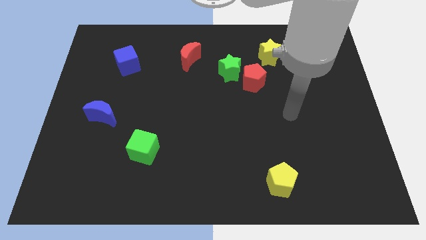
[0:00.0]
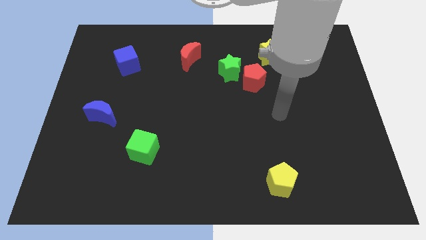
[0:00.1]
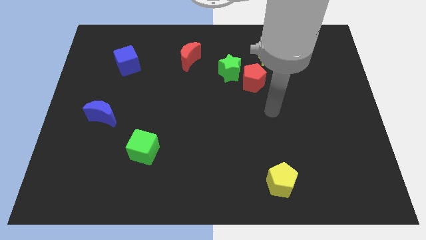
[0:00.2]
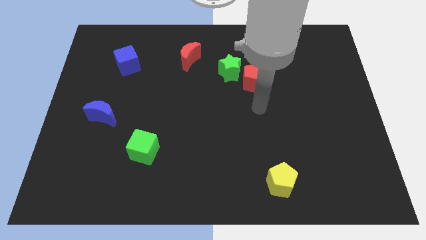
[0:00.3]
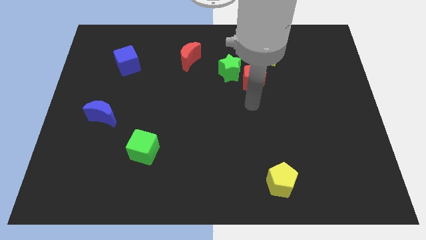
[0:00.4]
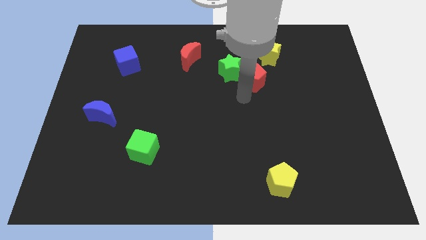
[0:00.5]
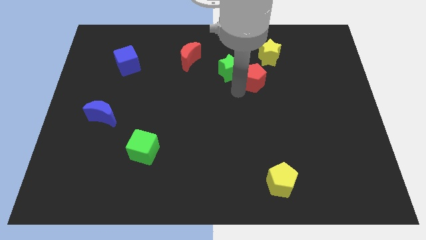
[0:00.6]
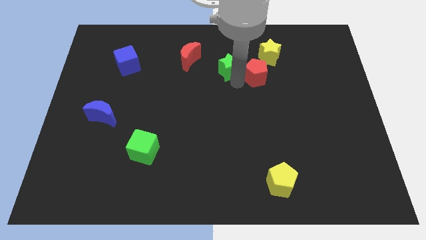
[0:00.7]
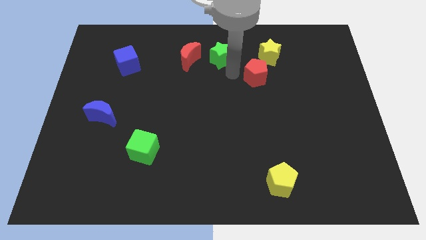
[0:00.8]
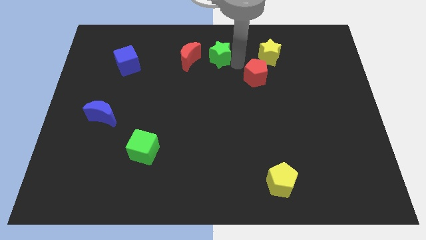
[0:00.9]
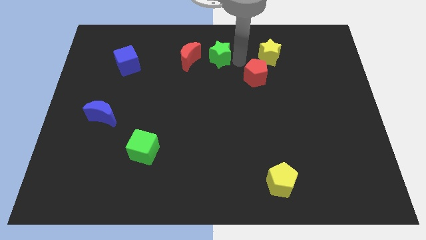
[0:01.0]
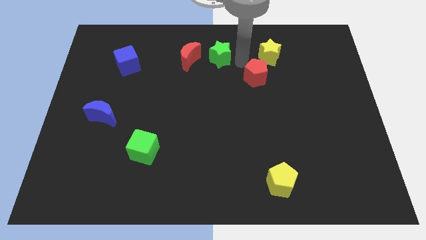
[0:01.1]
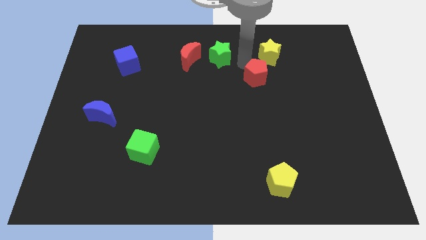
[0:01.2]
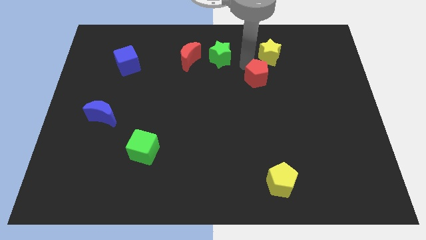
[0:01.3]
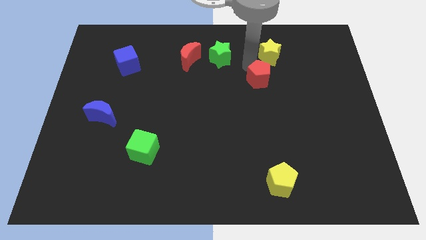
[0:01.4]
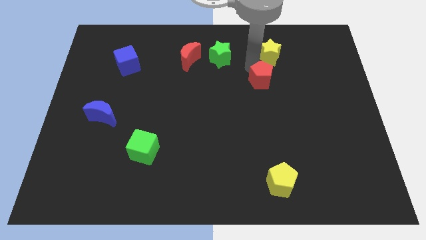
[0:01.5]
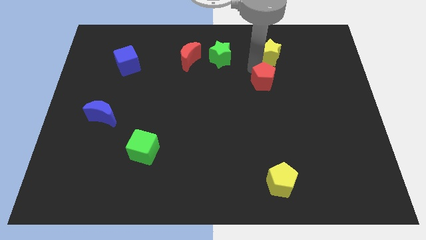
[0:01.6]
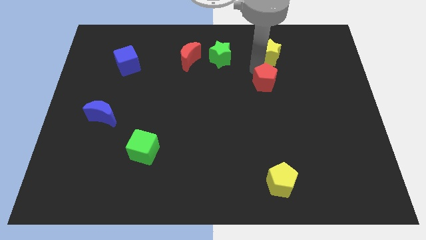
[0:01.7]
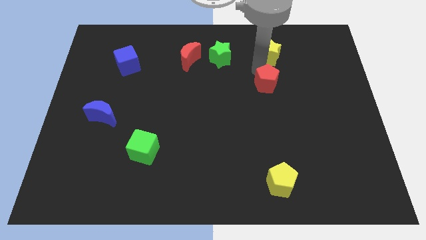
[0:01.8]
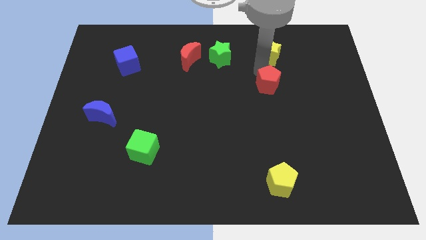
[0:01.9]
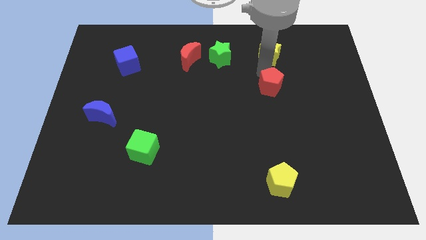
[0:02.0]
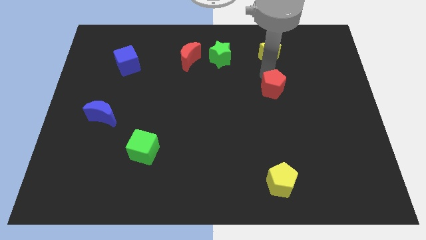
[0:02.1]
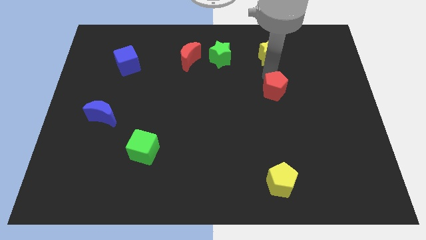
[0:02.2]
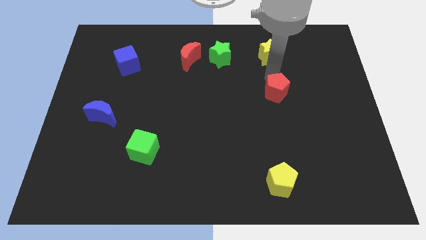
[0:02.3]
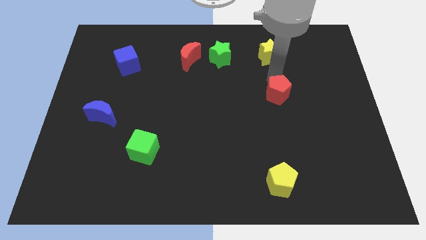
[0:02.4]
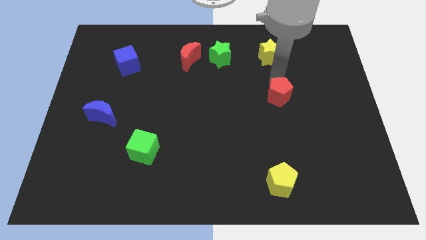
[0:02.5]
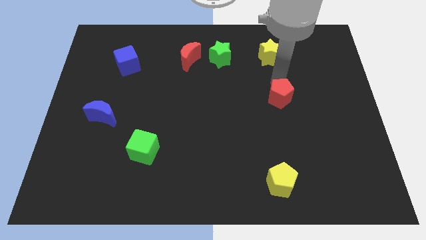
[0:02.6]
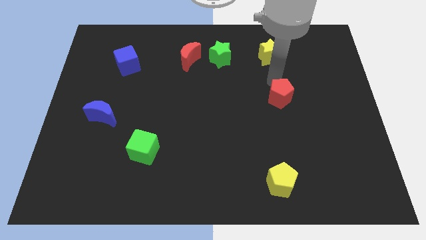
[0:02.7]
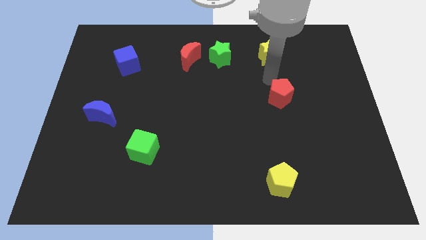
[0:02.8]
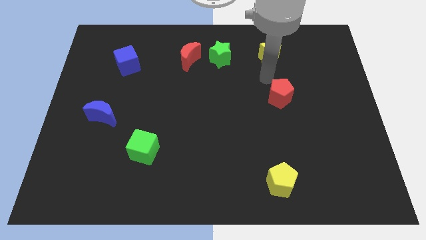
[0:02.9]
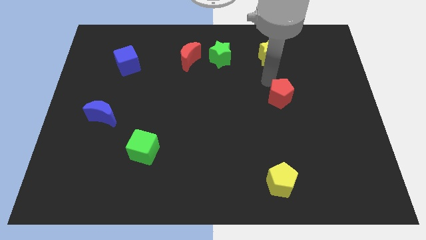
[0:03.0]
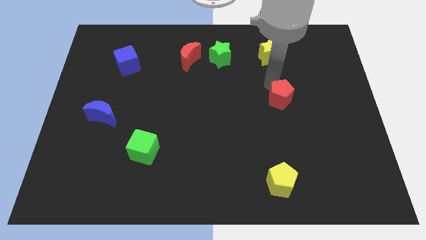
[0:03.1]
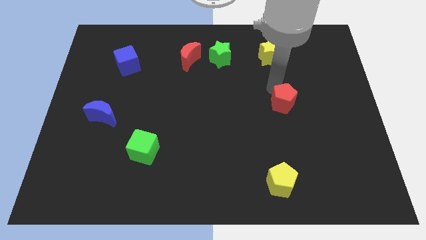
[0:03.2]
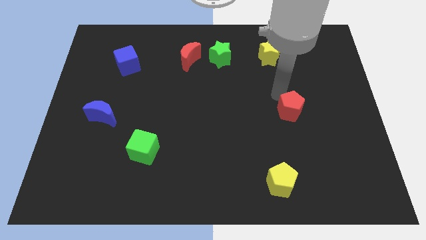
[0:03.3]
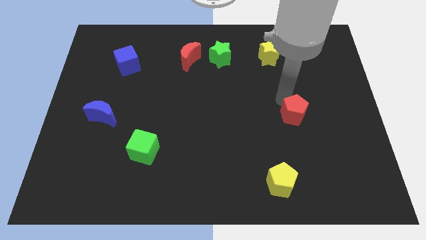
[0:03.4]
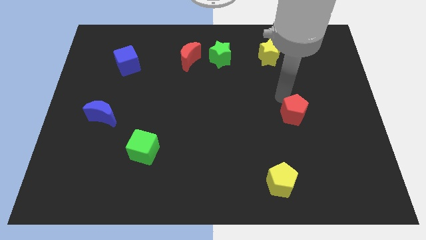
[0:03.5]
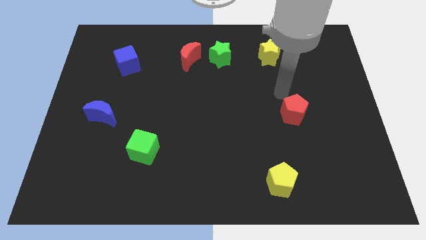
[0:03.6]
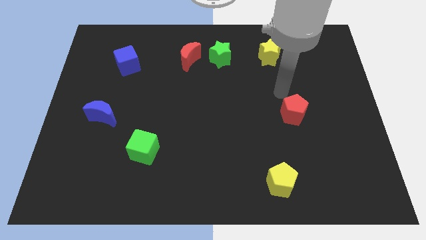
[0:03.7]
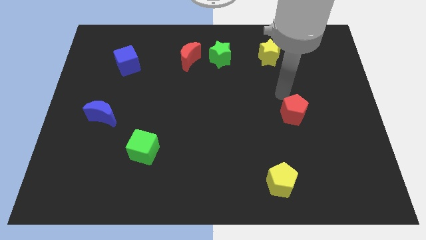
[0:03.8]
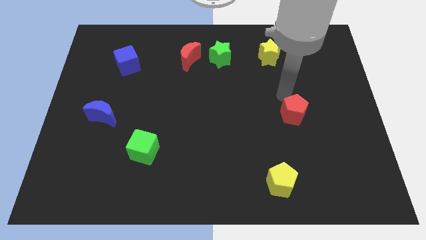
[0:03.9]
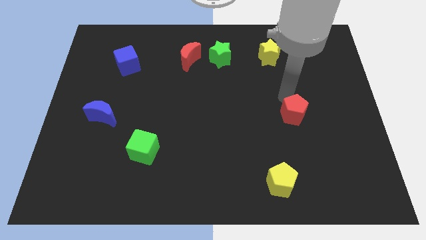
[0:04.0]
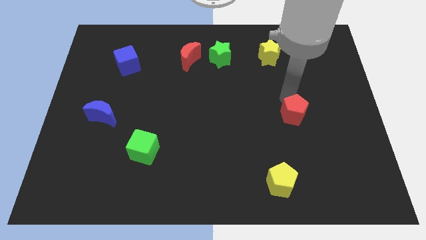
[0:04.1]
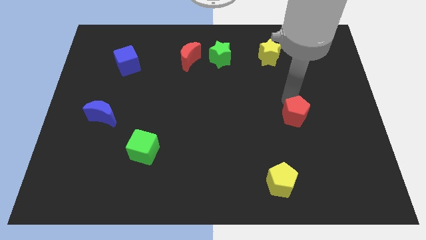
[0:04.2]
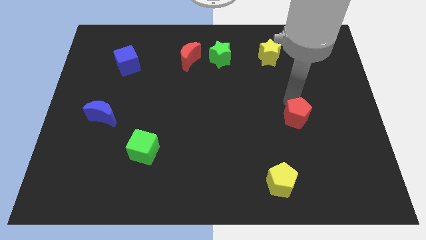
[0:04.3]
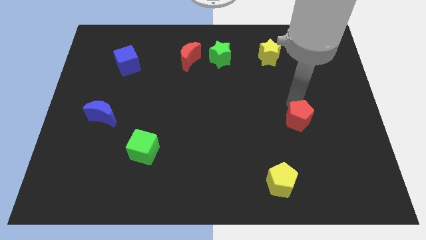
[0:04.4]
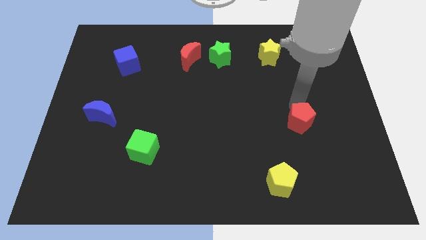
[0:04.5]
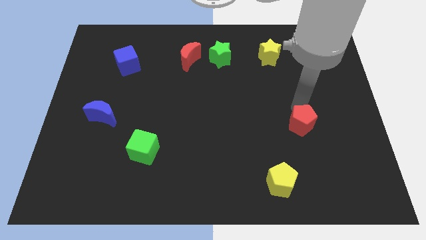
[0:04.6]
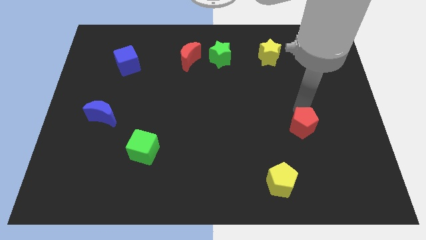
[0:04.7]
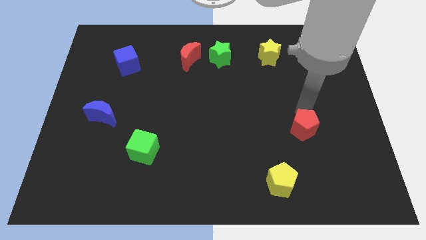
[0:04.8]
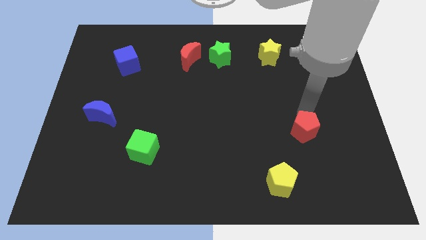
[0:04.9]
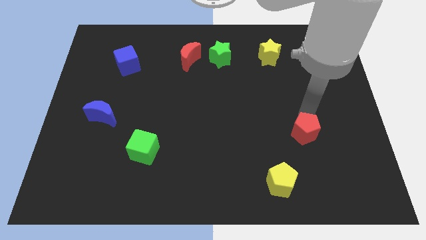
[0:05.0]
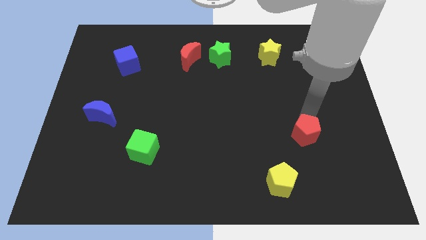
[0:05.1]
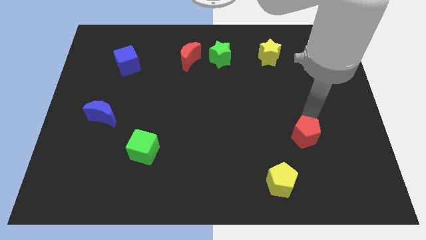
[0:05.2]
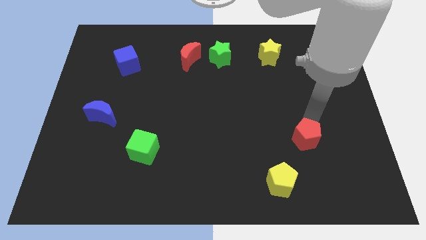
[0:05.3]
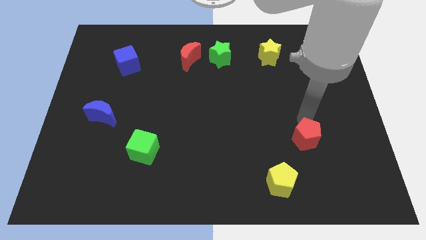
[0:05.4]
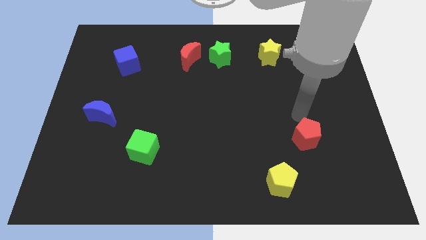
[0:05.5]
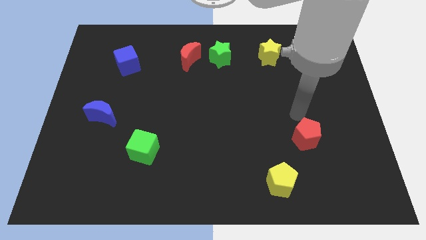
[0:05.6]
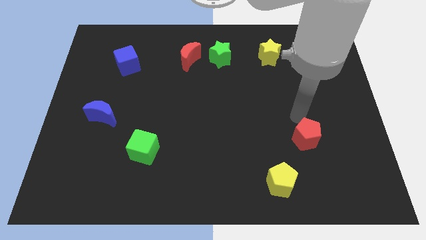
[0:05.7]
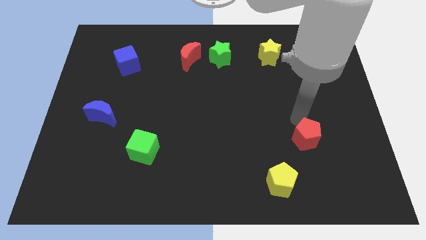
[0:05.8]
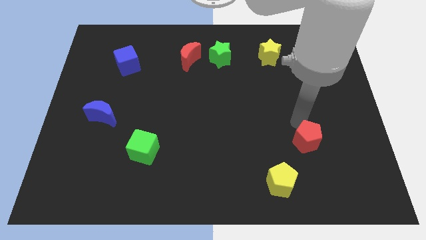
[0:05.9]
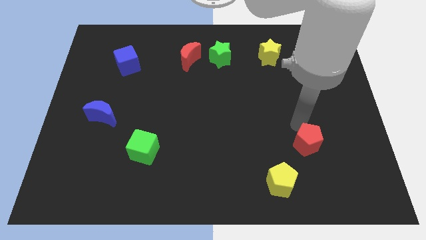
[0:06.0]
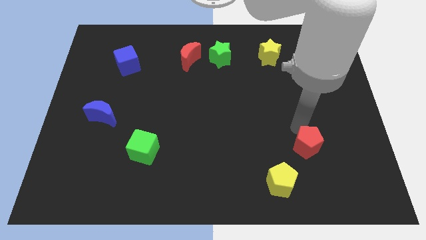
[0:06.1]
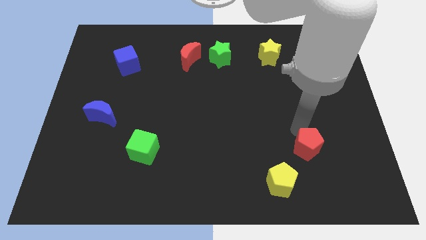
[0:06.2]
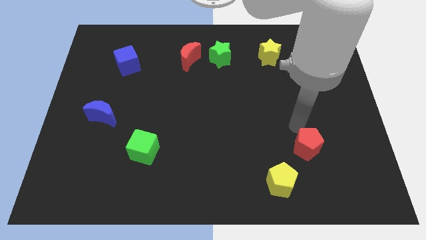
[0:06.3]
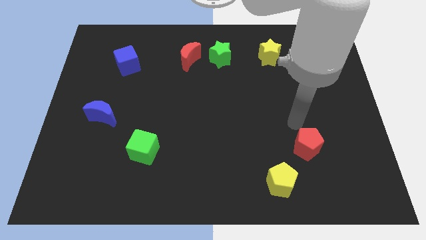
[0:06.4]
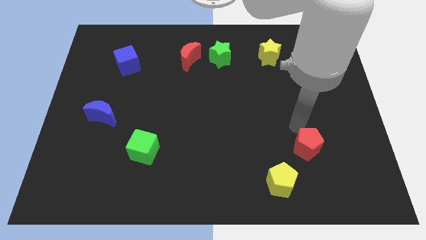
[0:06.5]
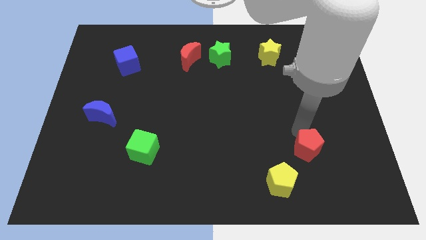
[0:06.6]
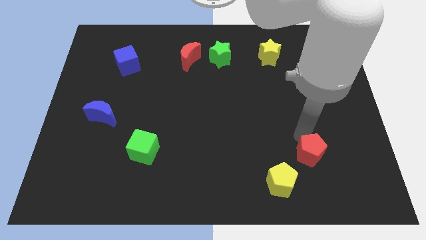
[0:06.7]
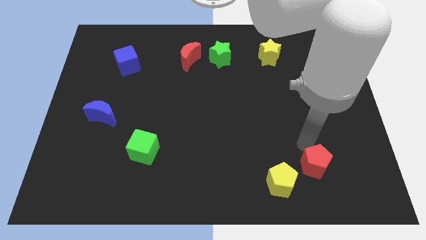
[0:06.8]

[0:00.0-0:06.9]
slide the red pentagon just right of the yellow pentagon
